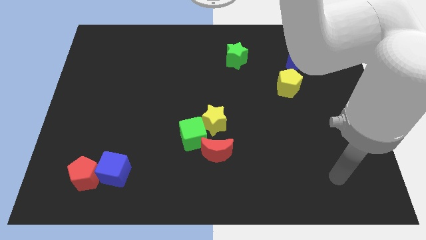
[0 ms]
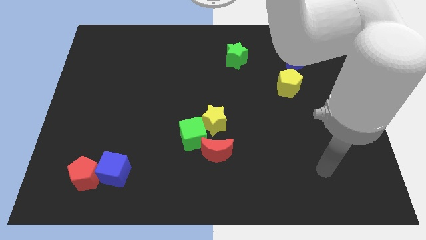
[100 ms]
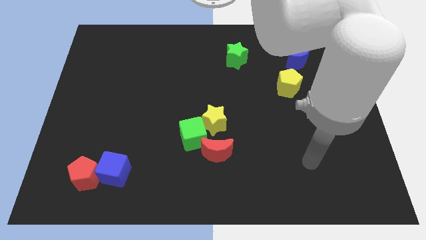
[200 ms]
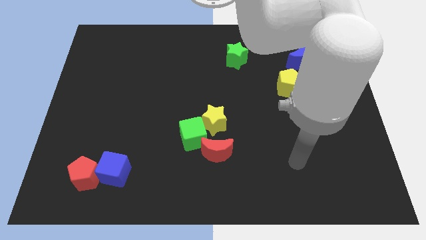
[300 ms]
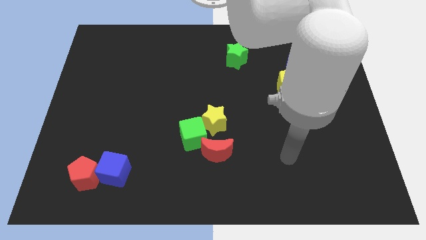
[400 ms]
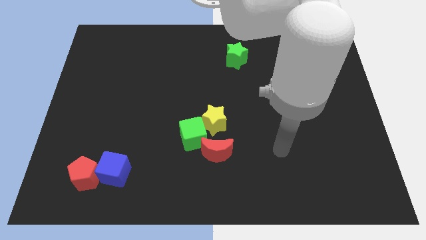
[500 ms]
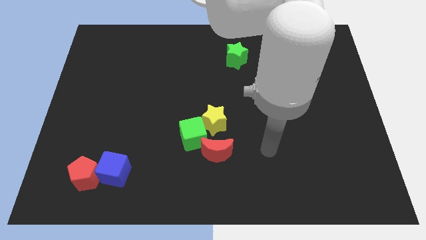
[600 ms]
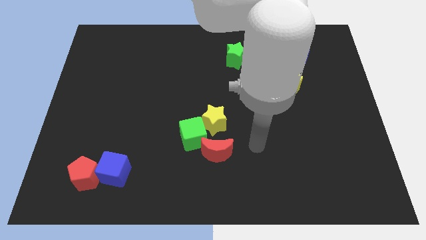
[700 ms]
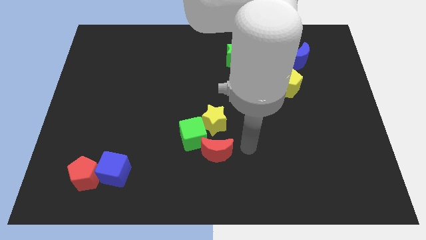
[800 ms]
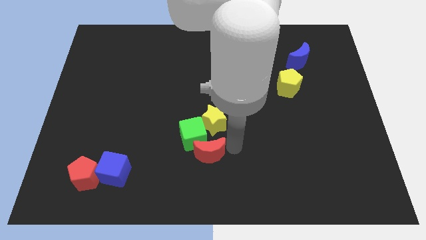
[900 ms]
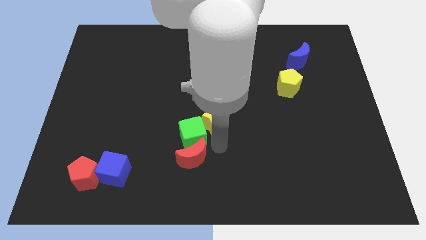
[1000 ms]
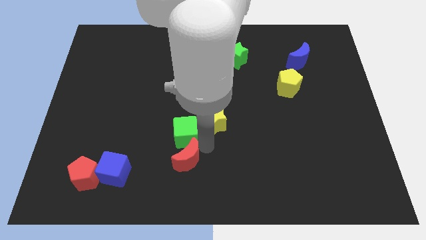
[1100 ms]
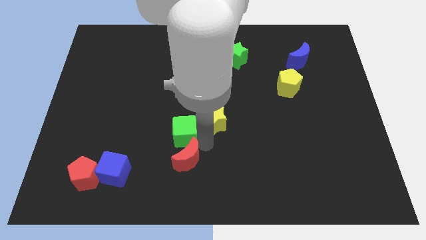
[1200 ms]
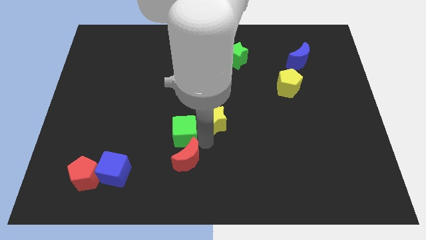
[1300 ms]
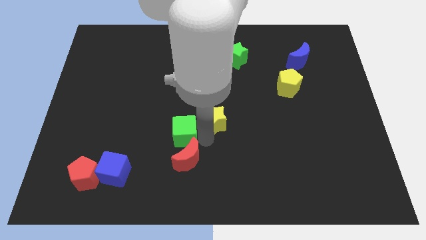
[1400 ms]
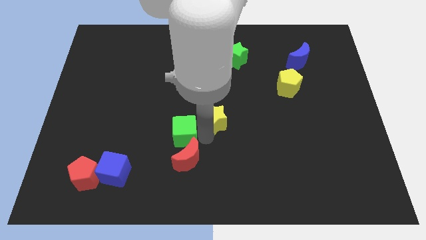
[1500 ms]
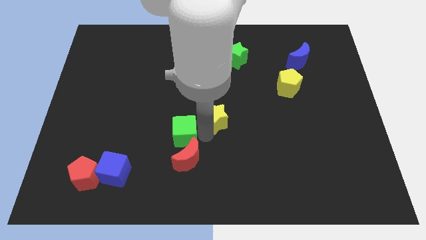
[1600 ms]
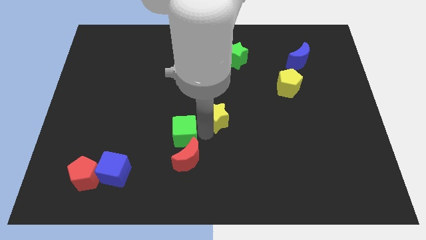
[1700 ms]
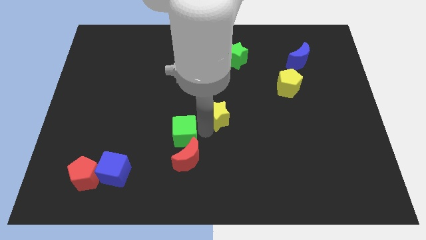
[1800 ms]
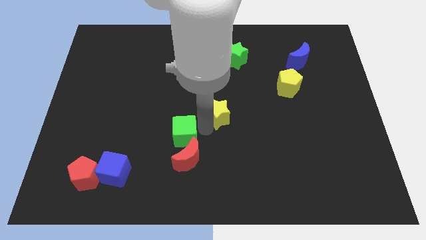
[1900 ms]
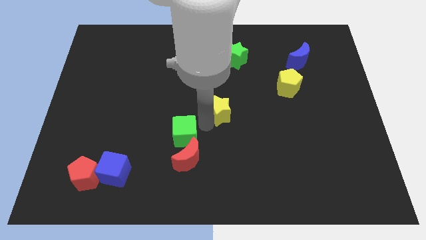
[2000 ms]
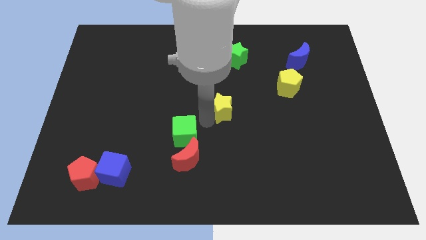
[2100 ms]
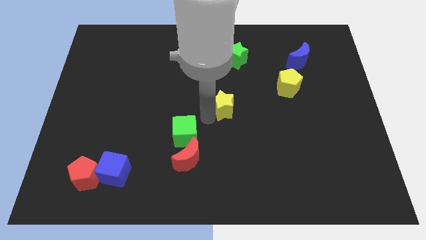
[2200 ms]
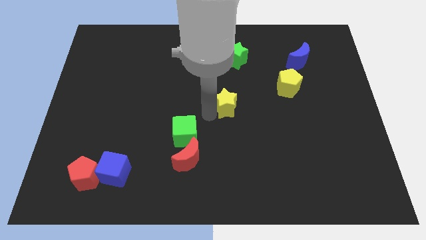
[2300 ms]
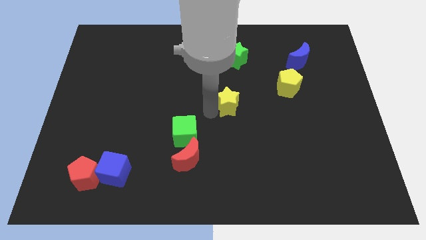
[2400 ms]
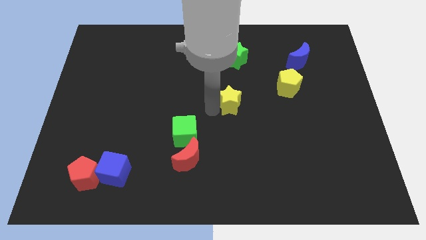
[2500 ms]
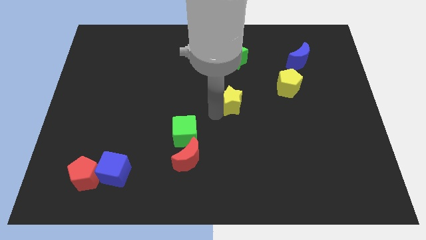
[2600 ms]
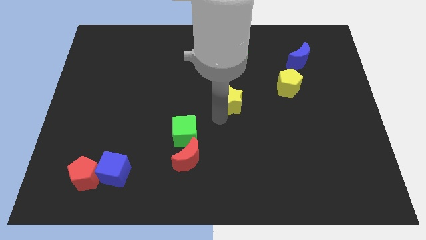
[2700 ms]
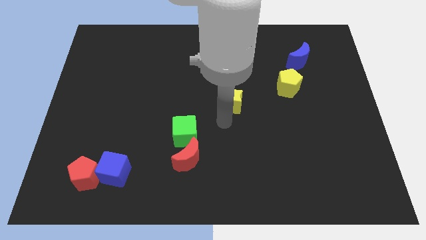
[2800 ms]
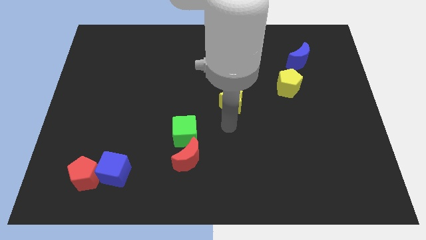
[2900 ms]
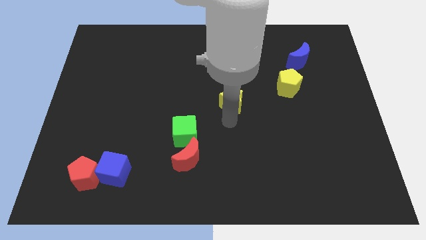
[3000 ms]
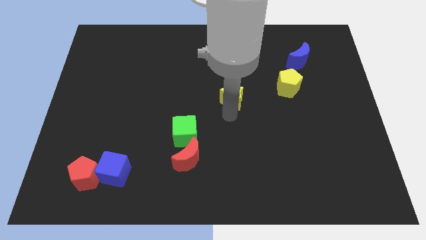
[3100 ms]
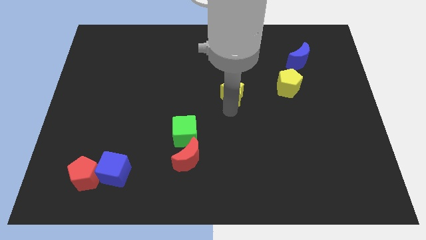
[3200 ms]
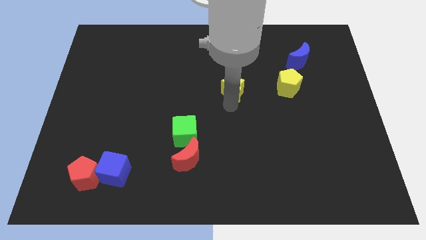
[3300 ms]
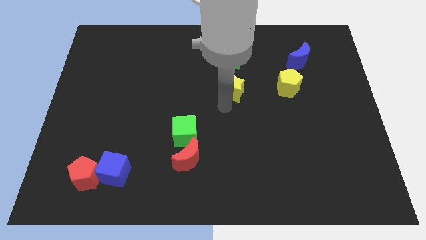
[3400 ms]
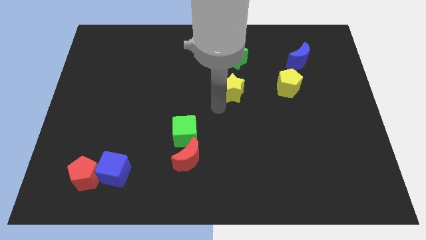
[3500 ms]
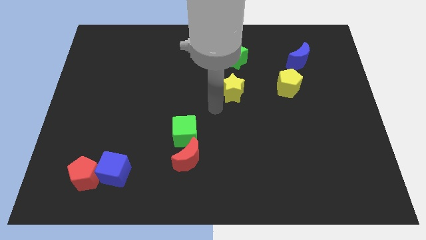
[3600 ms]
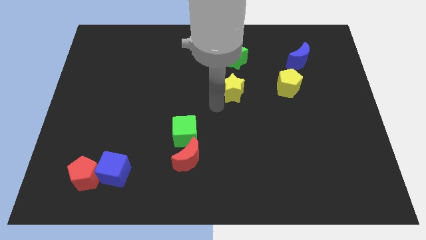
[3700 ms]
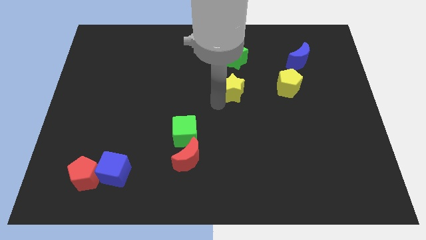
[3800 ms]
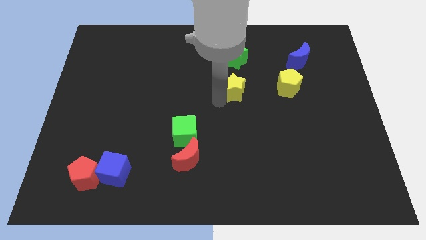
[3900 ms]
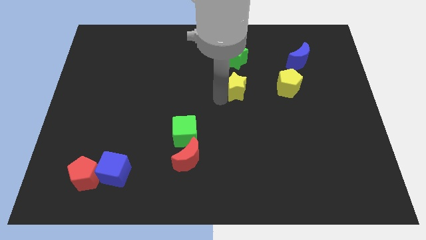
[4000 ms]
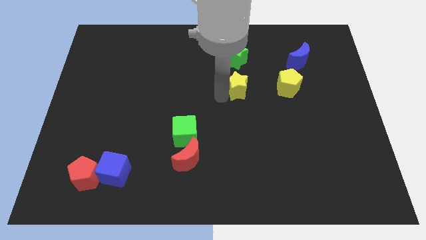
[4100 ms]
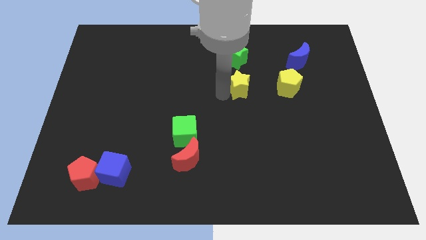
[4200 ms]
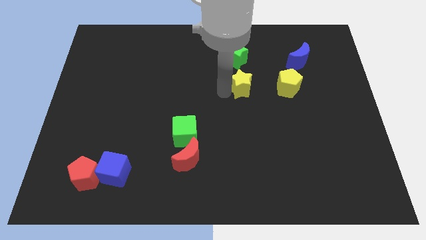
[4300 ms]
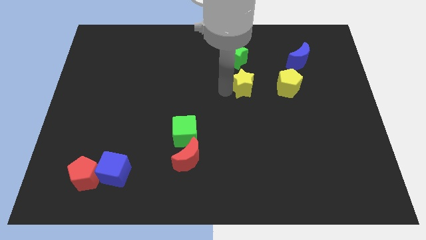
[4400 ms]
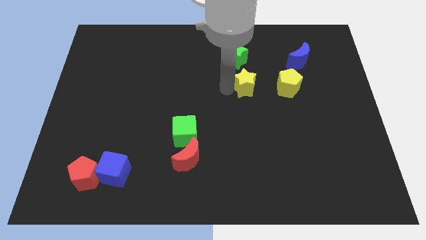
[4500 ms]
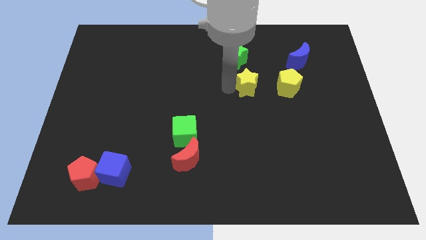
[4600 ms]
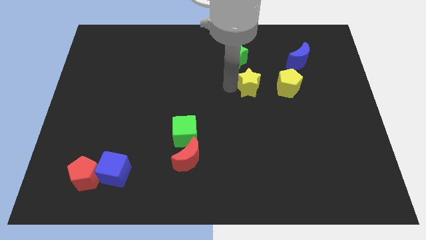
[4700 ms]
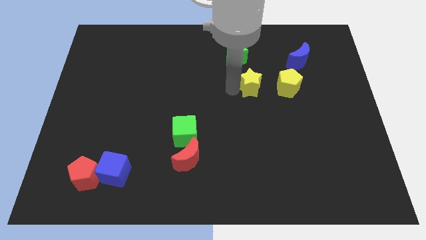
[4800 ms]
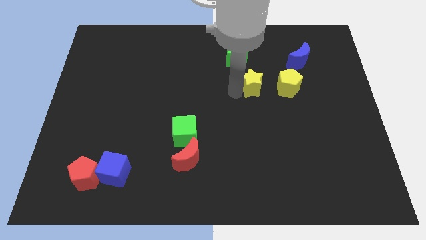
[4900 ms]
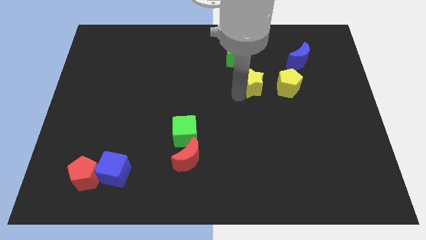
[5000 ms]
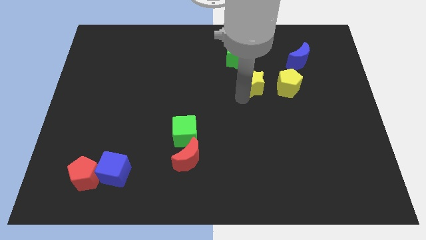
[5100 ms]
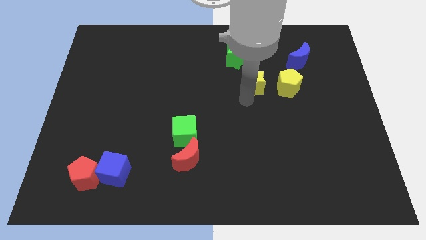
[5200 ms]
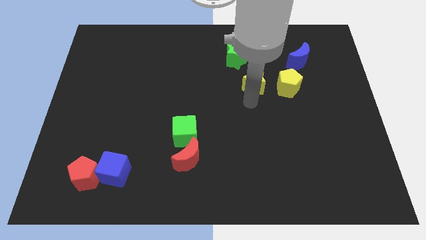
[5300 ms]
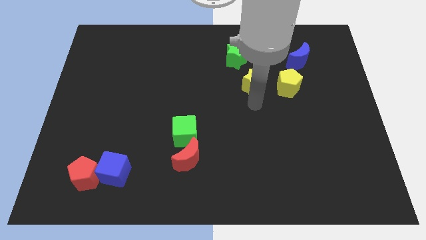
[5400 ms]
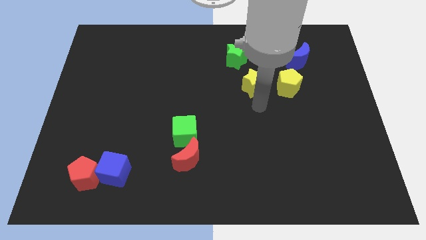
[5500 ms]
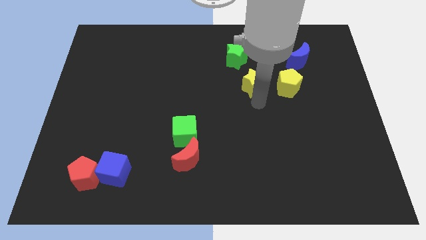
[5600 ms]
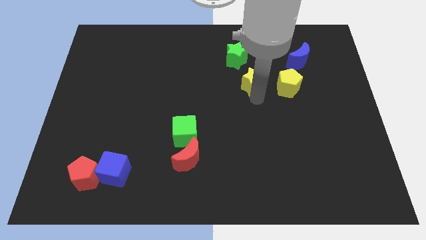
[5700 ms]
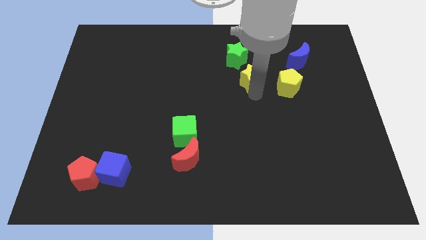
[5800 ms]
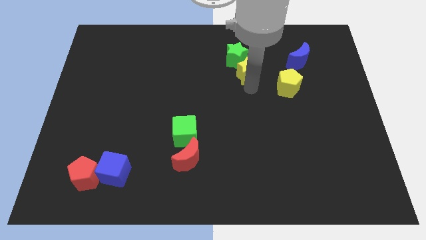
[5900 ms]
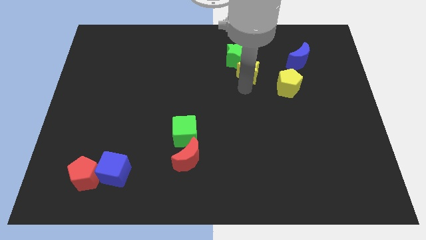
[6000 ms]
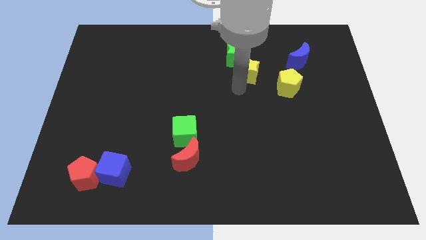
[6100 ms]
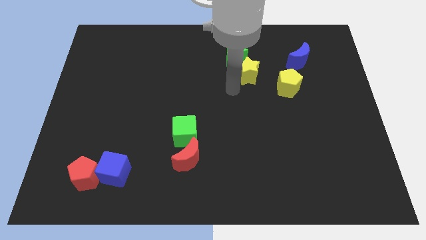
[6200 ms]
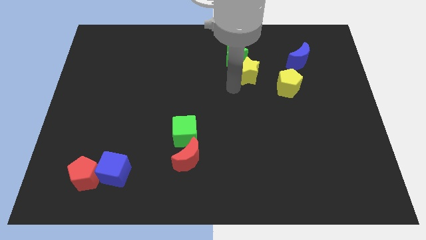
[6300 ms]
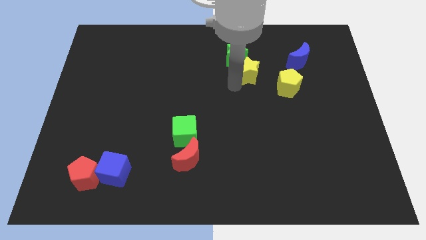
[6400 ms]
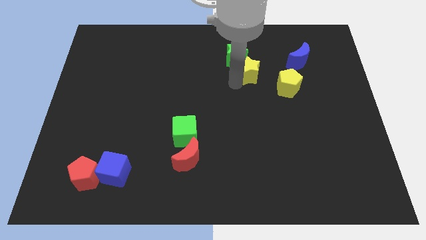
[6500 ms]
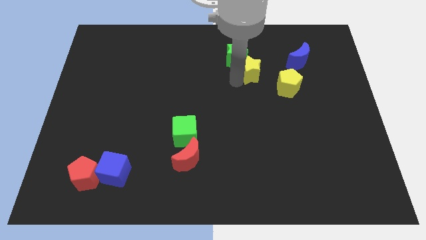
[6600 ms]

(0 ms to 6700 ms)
push the yellow star just left of the blue moon
